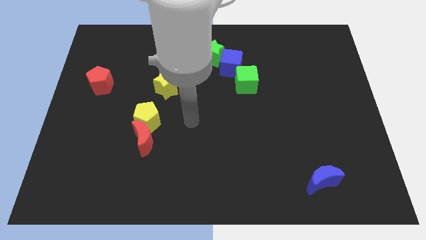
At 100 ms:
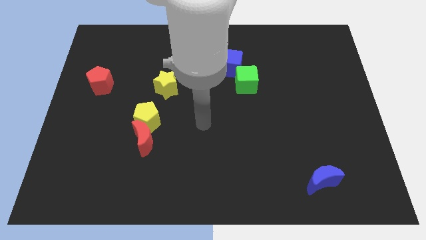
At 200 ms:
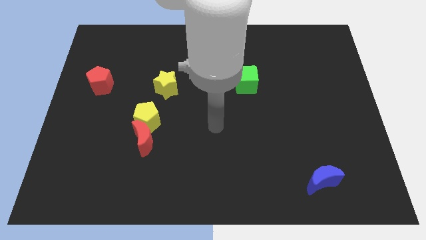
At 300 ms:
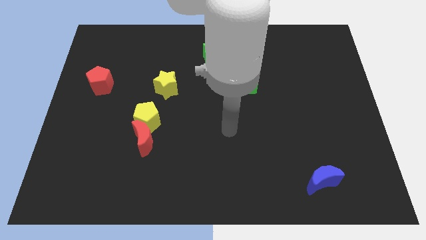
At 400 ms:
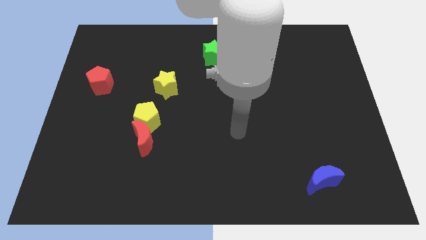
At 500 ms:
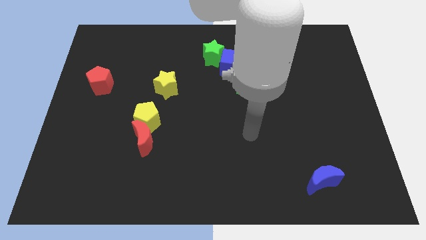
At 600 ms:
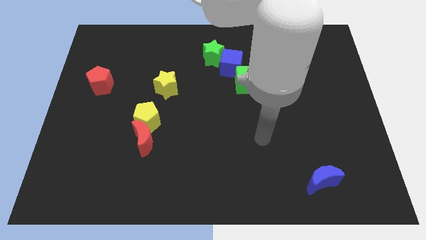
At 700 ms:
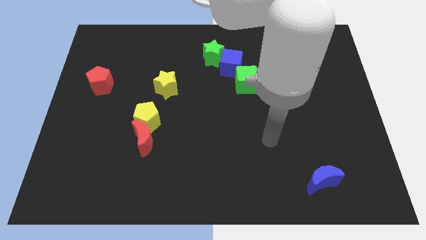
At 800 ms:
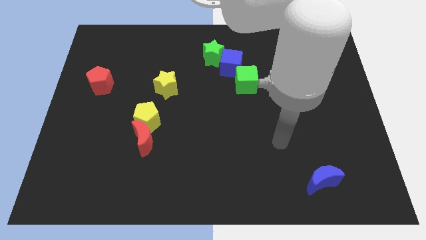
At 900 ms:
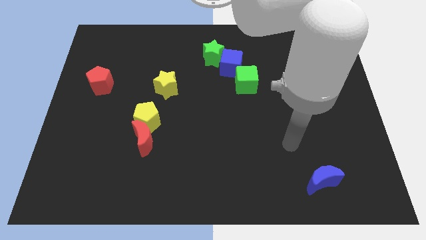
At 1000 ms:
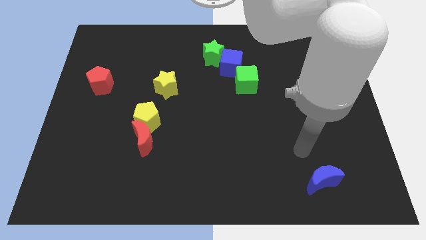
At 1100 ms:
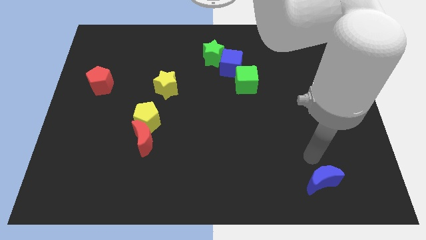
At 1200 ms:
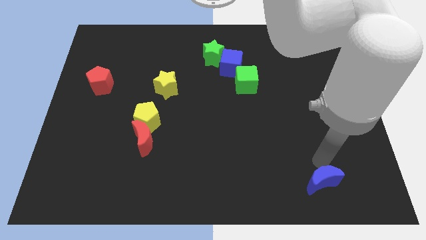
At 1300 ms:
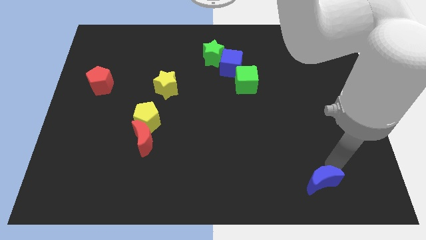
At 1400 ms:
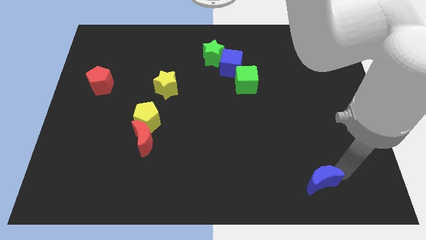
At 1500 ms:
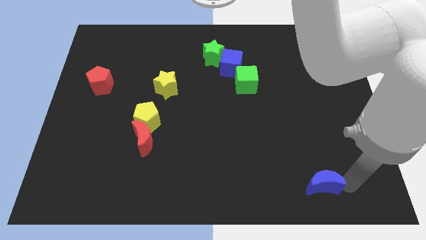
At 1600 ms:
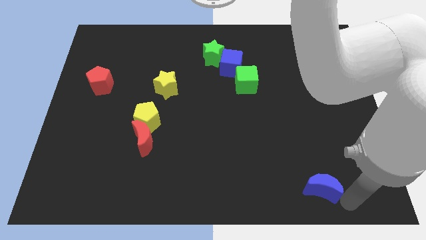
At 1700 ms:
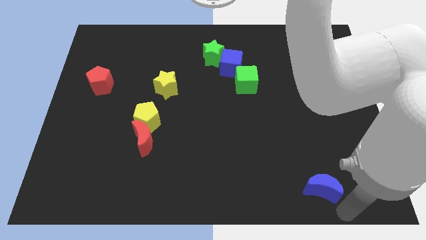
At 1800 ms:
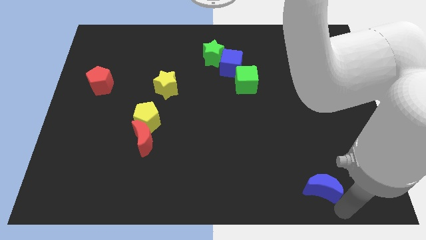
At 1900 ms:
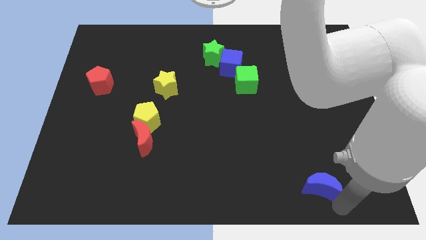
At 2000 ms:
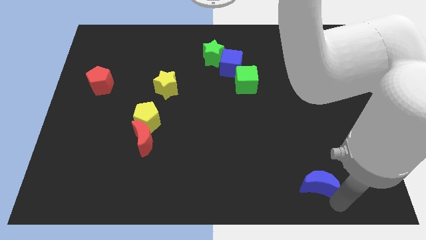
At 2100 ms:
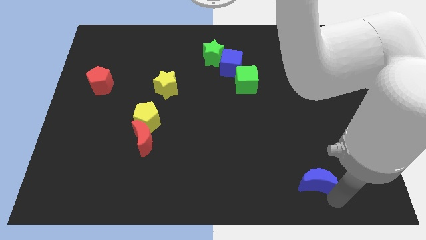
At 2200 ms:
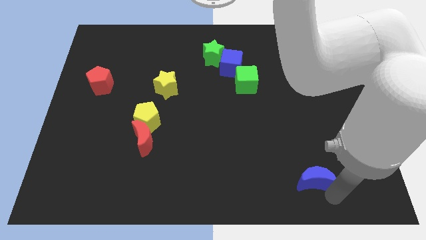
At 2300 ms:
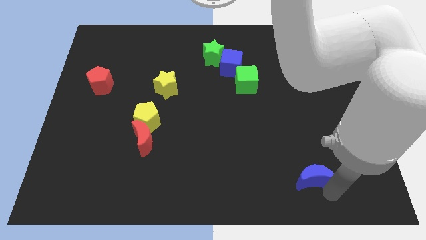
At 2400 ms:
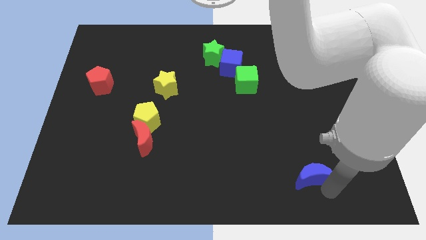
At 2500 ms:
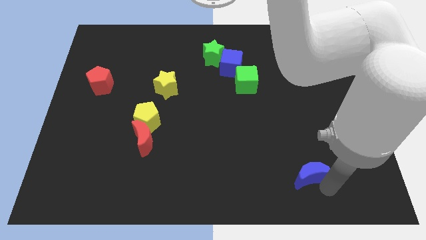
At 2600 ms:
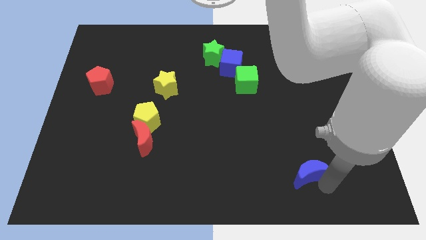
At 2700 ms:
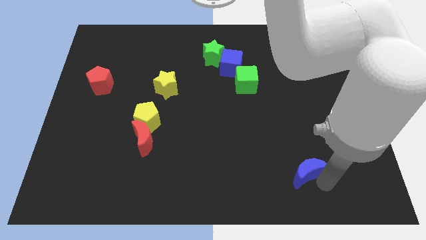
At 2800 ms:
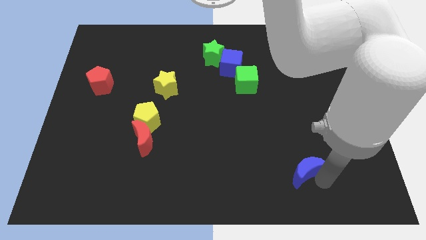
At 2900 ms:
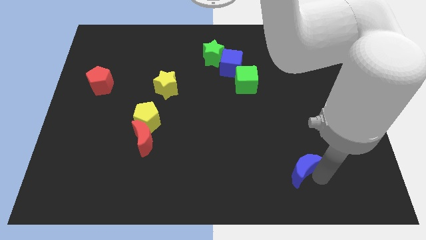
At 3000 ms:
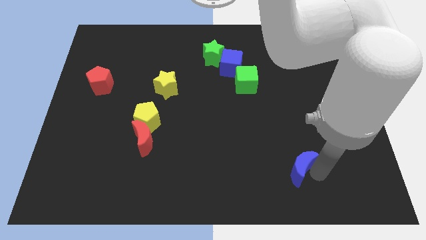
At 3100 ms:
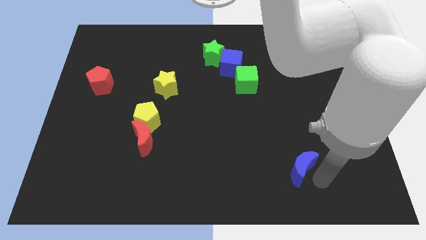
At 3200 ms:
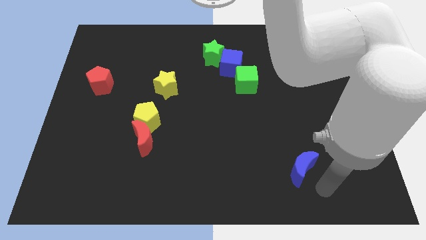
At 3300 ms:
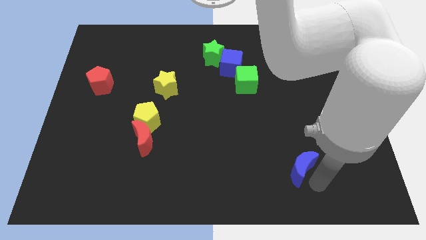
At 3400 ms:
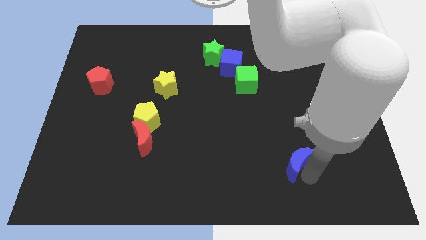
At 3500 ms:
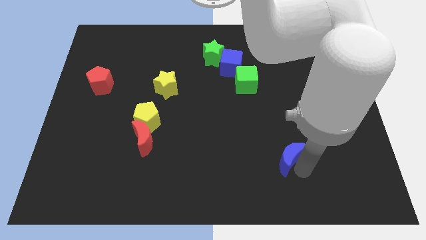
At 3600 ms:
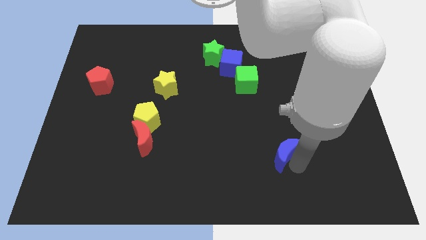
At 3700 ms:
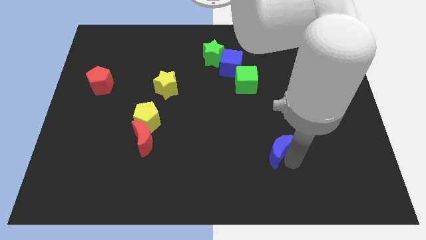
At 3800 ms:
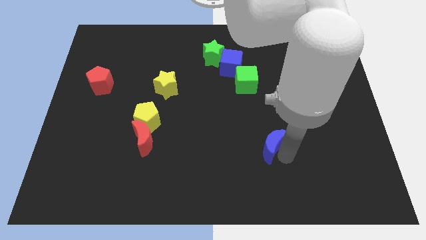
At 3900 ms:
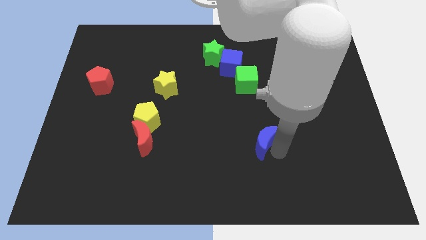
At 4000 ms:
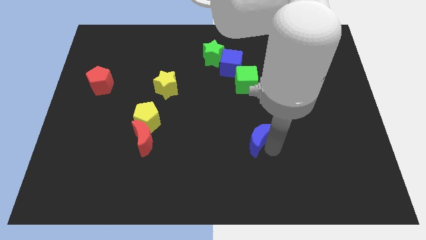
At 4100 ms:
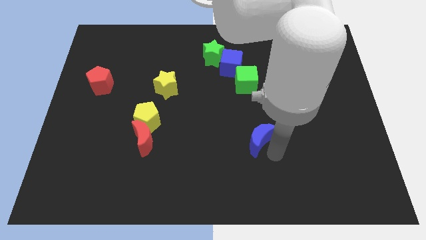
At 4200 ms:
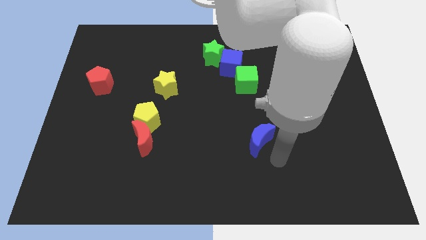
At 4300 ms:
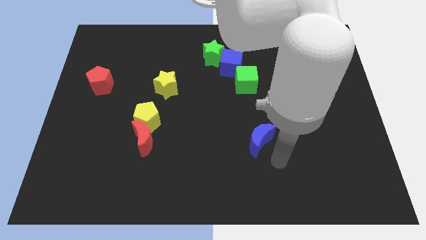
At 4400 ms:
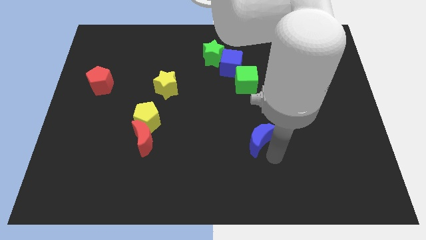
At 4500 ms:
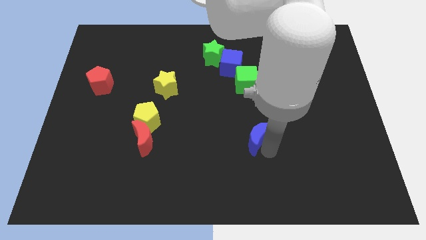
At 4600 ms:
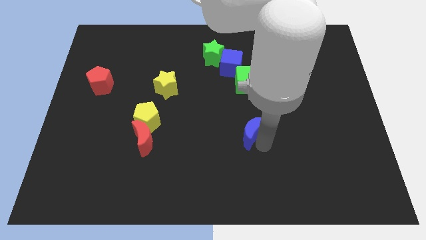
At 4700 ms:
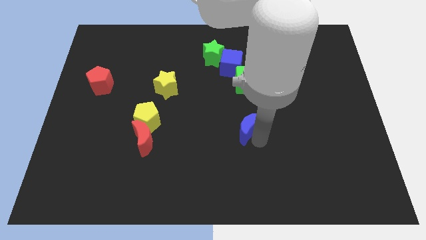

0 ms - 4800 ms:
move the blue moon to the middle

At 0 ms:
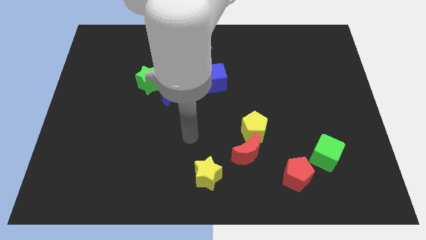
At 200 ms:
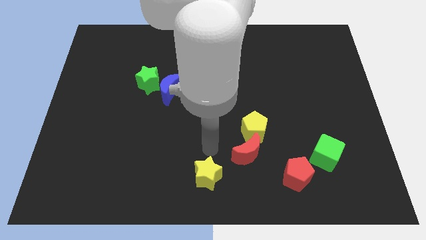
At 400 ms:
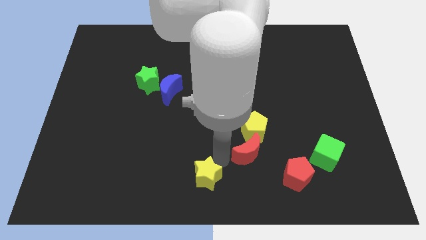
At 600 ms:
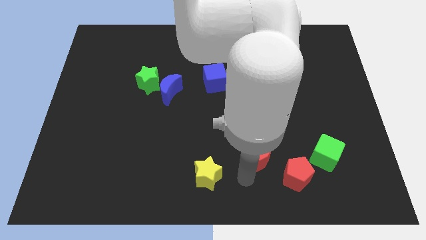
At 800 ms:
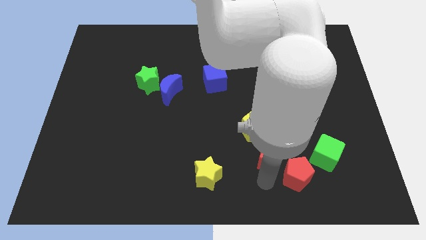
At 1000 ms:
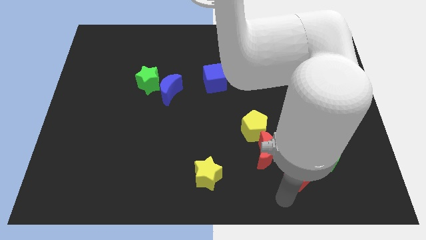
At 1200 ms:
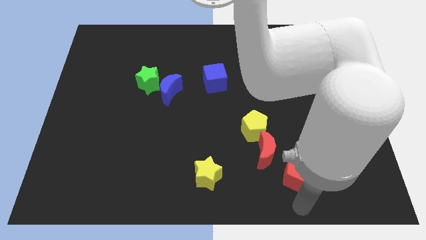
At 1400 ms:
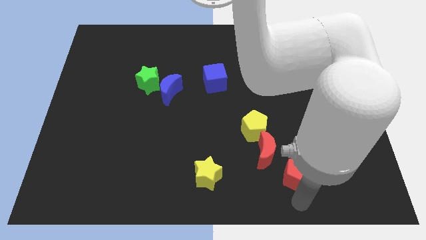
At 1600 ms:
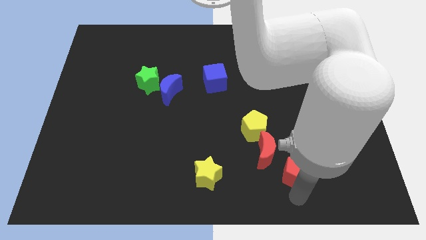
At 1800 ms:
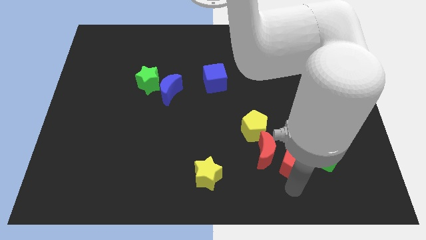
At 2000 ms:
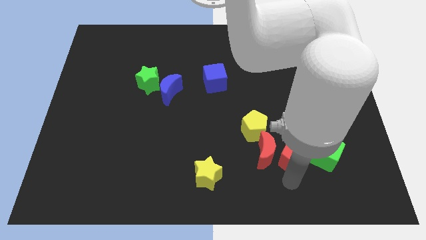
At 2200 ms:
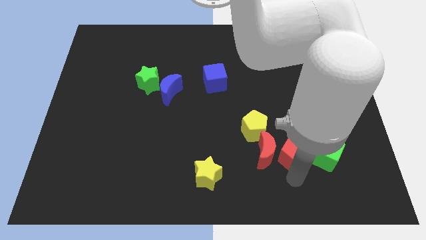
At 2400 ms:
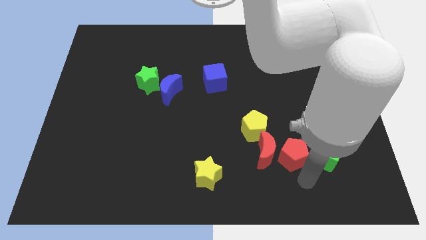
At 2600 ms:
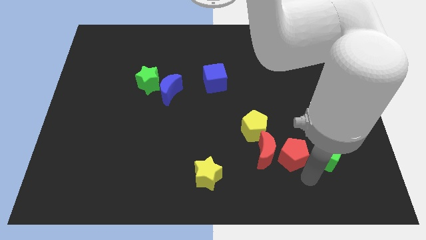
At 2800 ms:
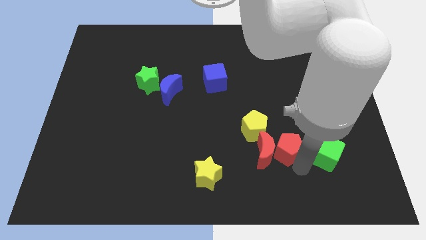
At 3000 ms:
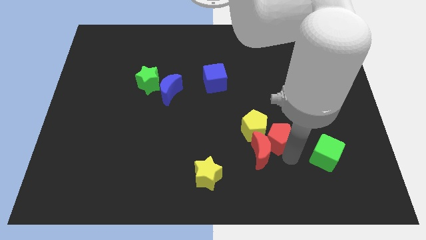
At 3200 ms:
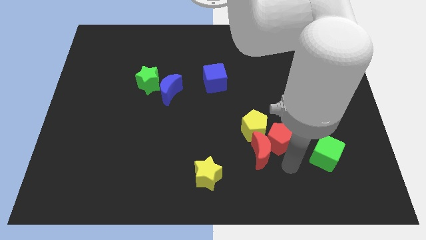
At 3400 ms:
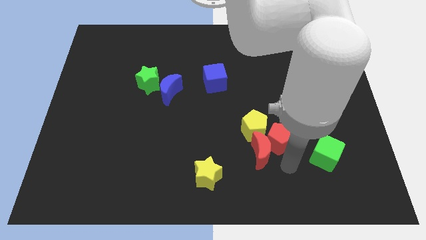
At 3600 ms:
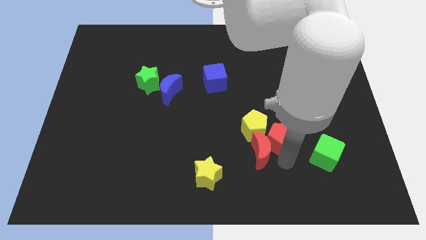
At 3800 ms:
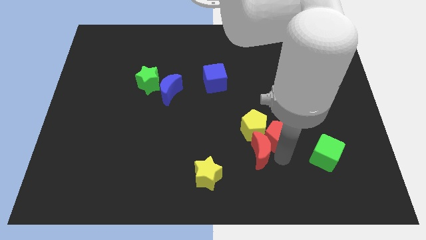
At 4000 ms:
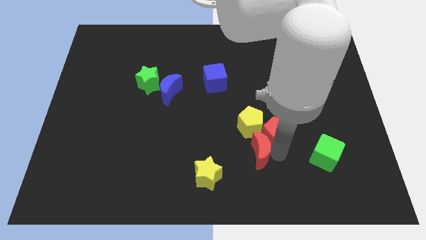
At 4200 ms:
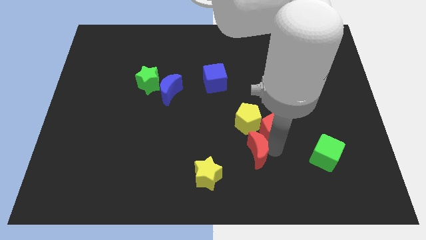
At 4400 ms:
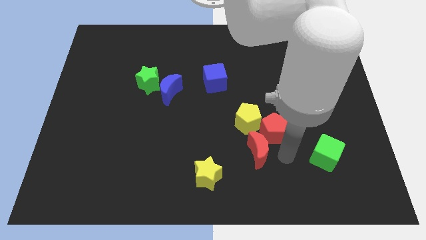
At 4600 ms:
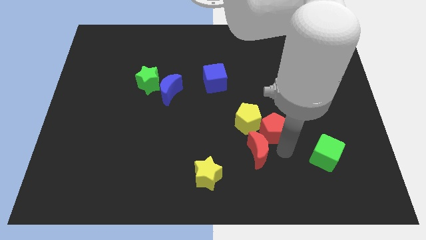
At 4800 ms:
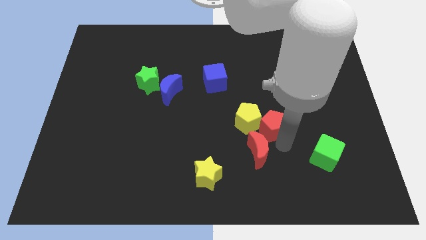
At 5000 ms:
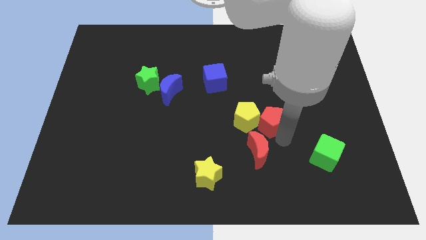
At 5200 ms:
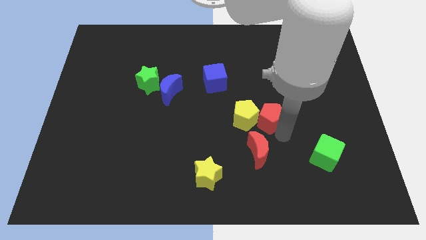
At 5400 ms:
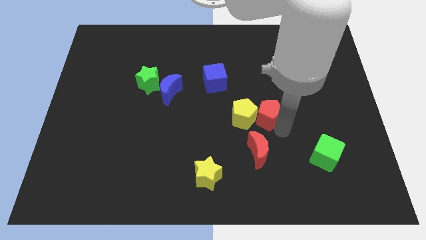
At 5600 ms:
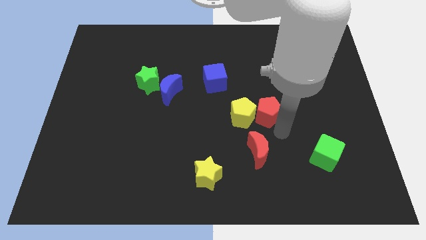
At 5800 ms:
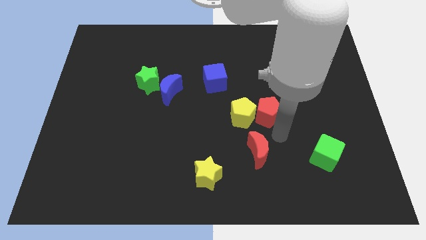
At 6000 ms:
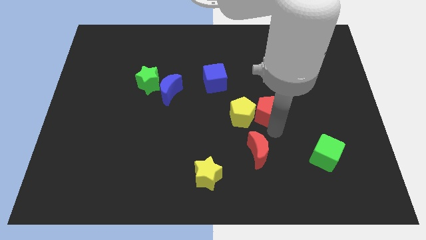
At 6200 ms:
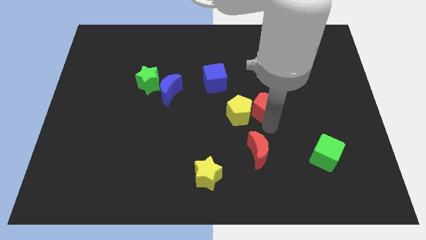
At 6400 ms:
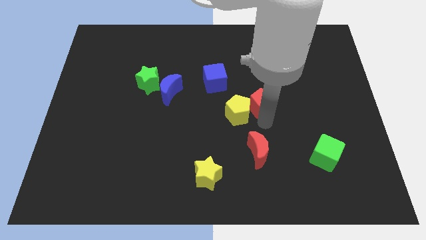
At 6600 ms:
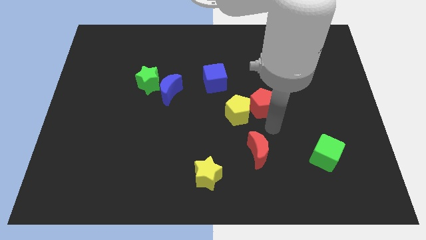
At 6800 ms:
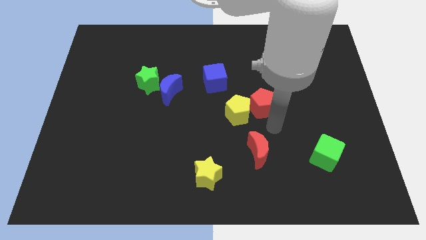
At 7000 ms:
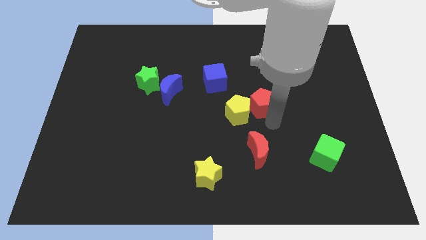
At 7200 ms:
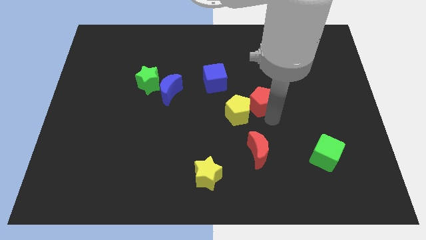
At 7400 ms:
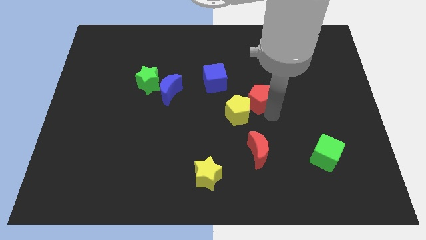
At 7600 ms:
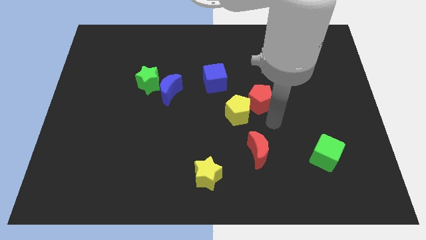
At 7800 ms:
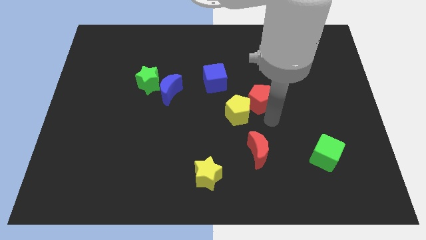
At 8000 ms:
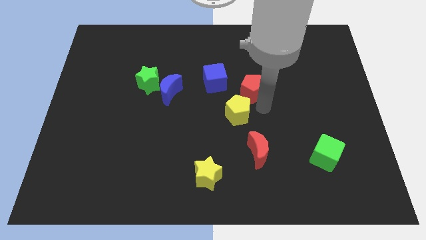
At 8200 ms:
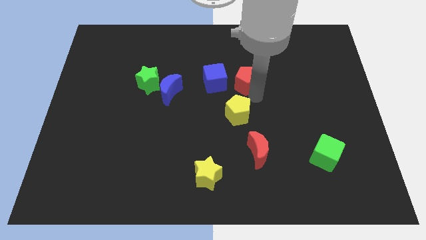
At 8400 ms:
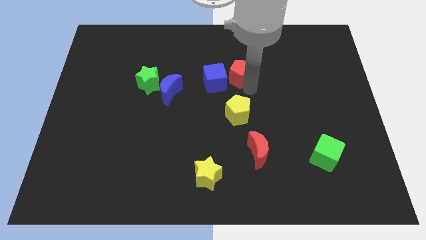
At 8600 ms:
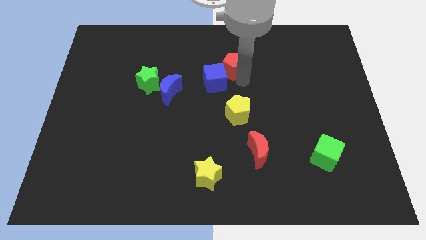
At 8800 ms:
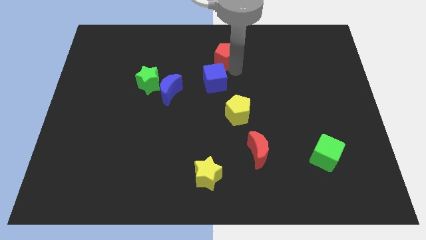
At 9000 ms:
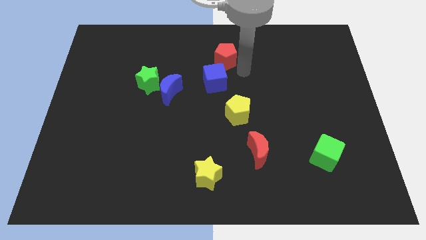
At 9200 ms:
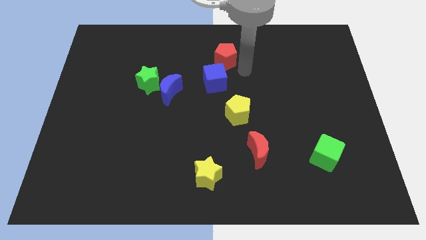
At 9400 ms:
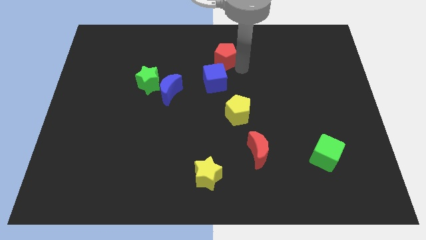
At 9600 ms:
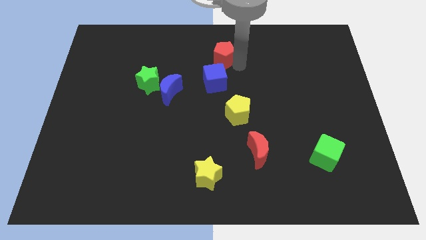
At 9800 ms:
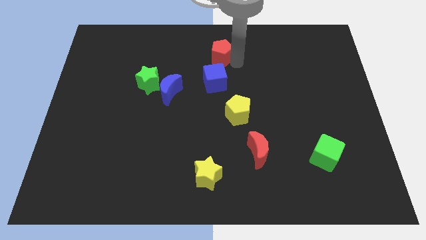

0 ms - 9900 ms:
put the red pentagon to the top side
